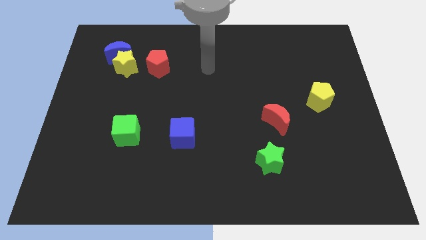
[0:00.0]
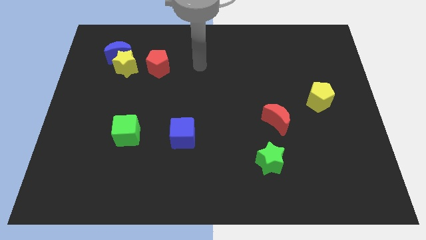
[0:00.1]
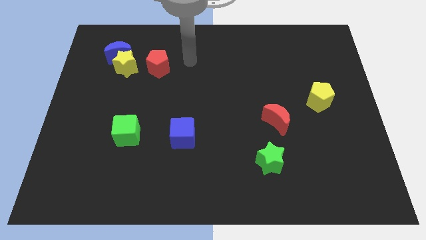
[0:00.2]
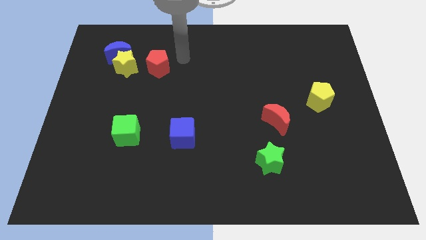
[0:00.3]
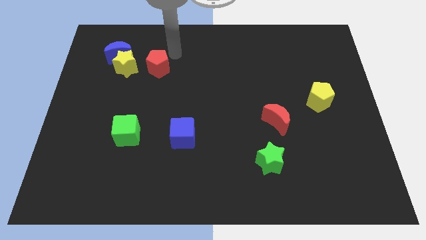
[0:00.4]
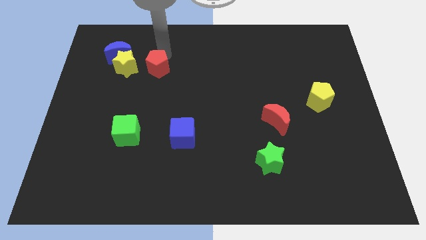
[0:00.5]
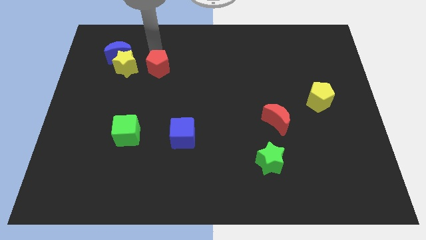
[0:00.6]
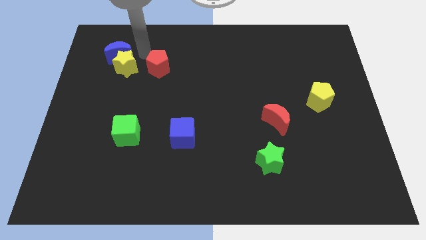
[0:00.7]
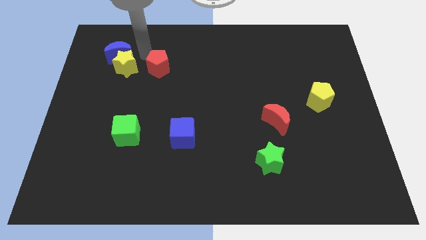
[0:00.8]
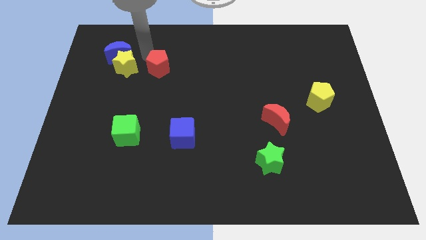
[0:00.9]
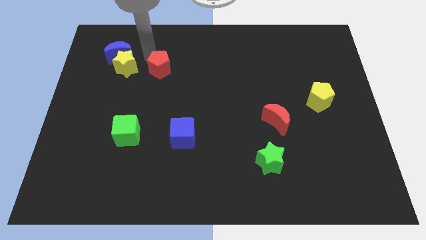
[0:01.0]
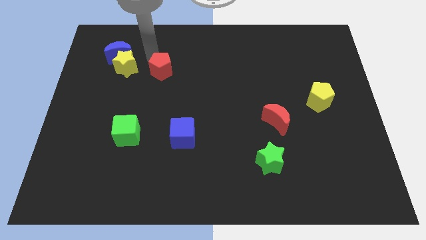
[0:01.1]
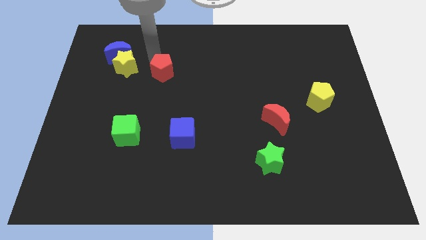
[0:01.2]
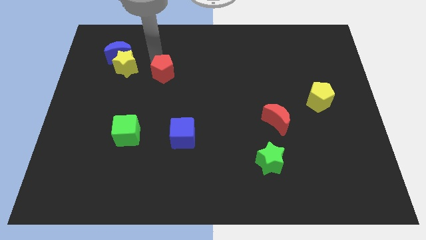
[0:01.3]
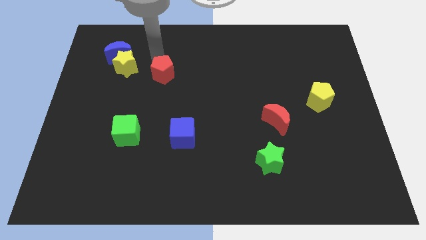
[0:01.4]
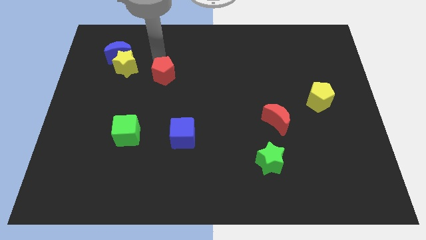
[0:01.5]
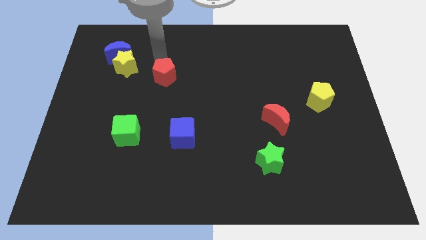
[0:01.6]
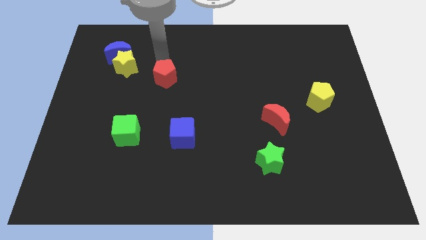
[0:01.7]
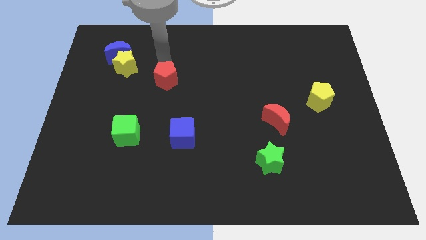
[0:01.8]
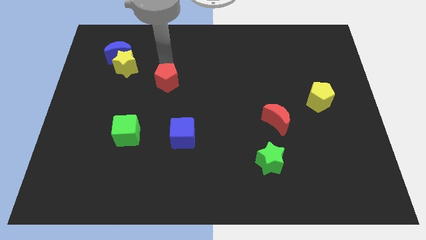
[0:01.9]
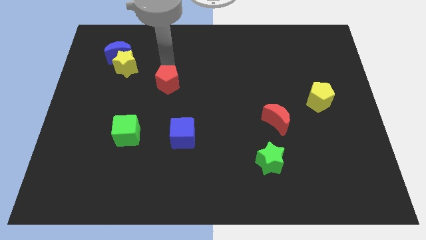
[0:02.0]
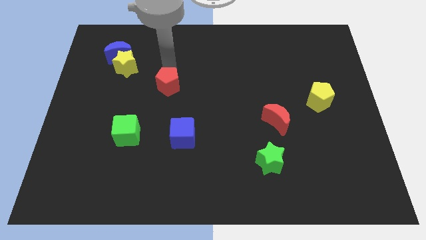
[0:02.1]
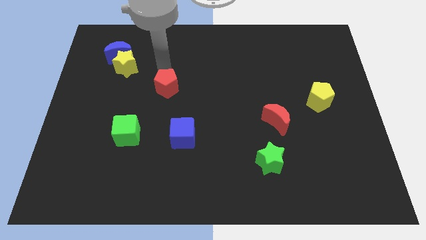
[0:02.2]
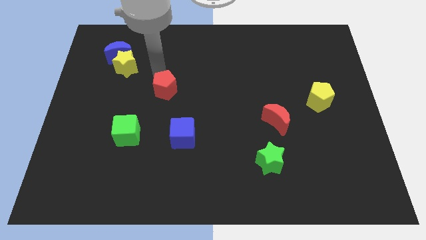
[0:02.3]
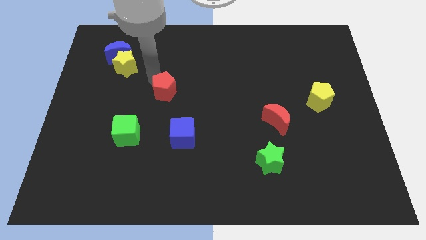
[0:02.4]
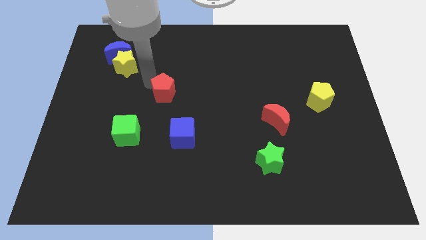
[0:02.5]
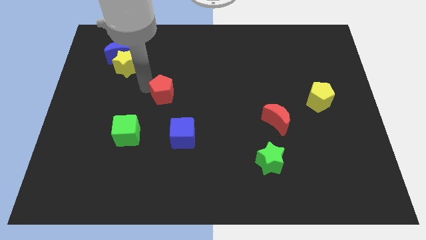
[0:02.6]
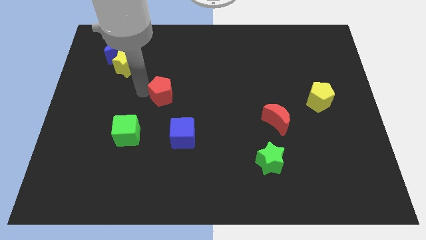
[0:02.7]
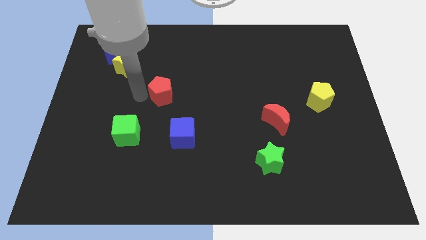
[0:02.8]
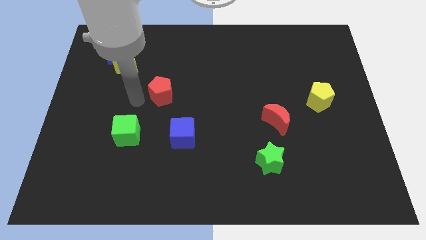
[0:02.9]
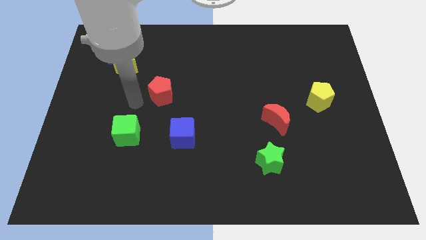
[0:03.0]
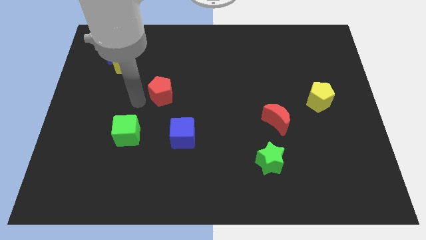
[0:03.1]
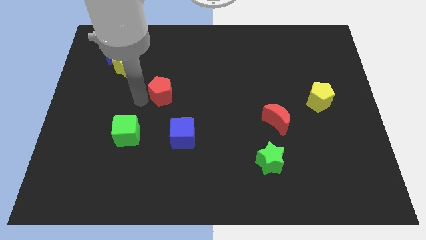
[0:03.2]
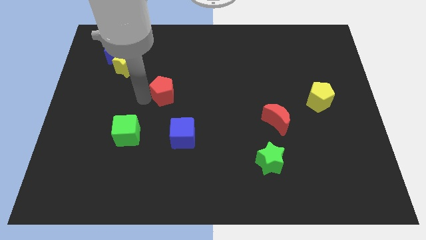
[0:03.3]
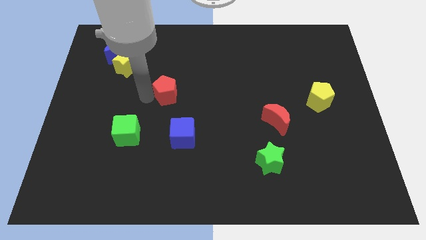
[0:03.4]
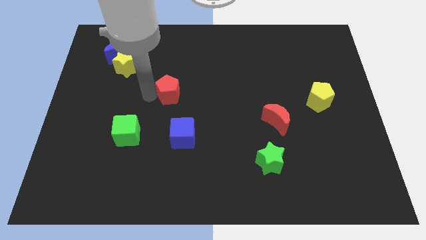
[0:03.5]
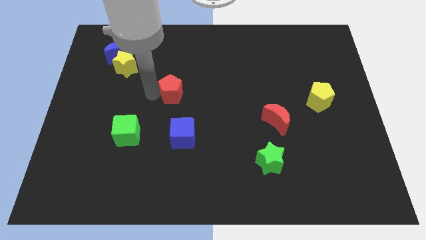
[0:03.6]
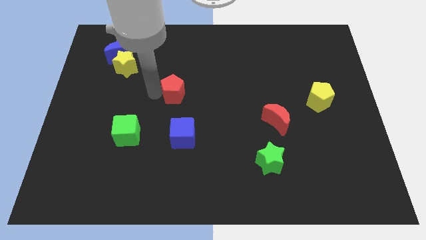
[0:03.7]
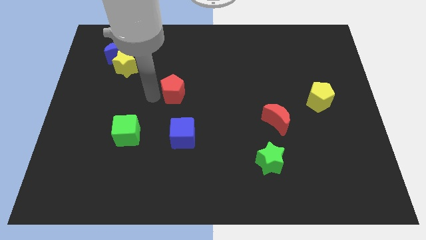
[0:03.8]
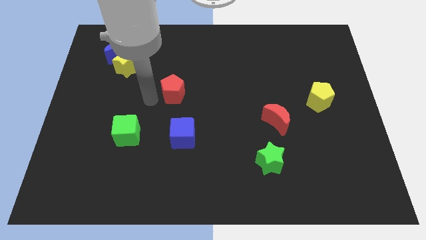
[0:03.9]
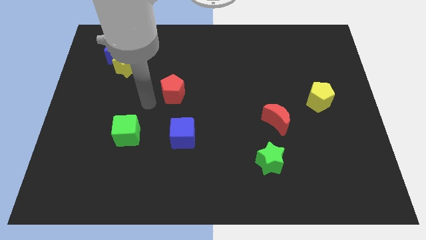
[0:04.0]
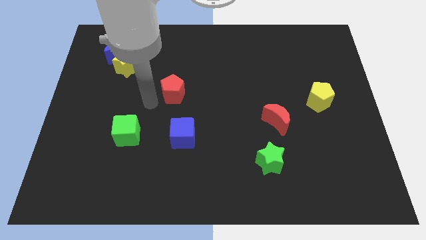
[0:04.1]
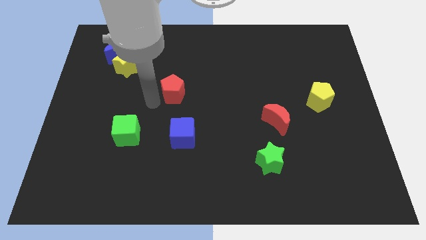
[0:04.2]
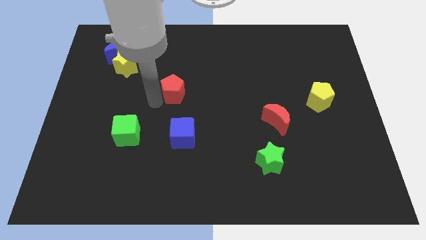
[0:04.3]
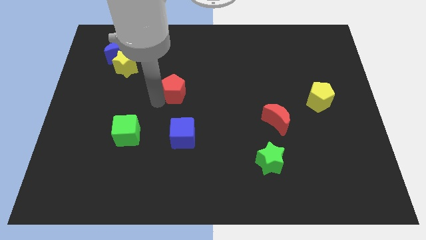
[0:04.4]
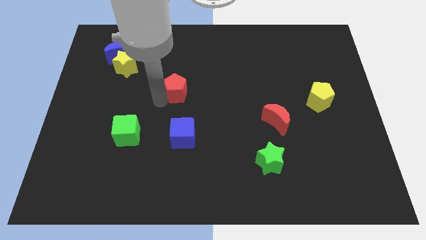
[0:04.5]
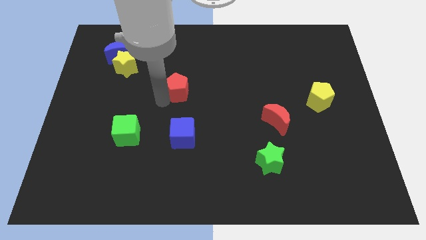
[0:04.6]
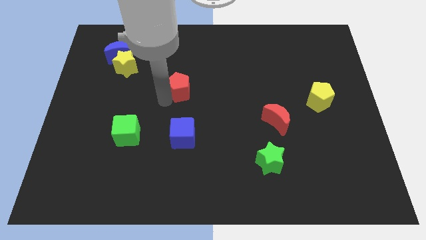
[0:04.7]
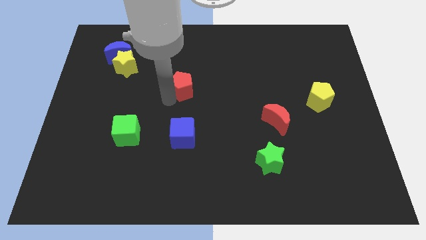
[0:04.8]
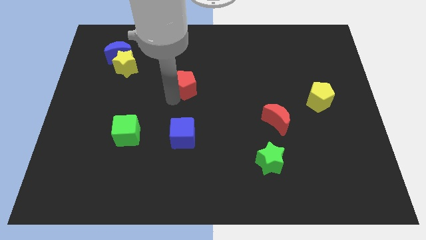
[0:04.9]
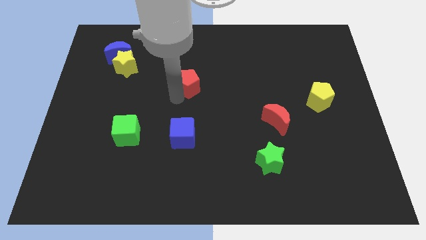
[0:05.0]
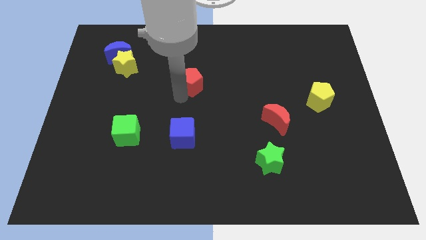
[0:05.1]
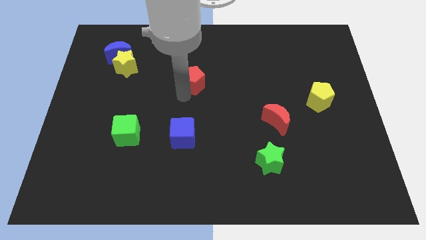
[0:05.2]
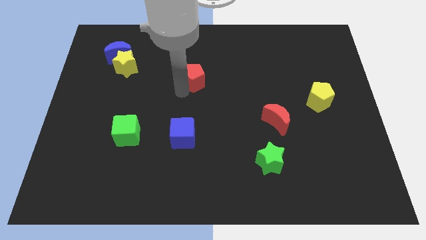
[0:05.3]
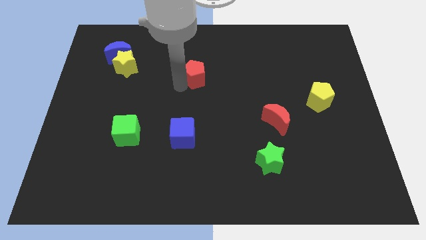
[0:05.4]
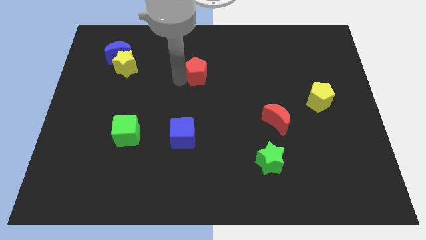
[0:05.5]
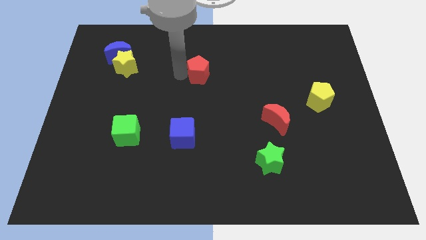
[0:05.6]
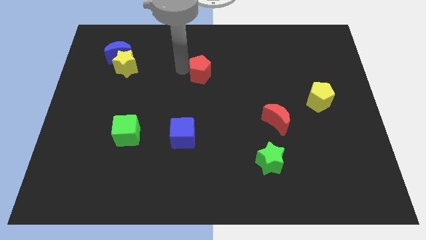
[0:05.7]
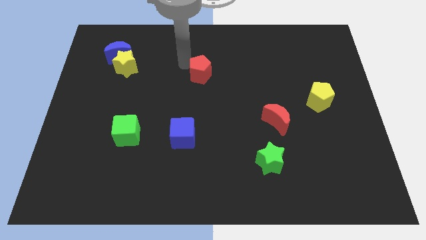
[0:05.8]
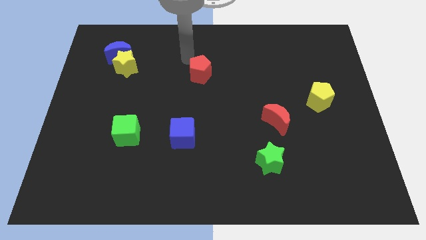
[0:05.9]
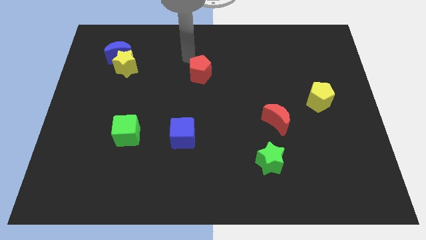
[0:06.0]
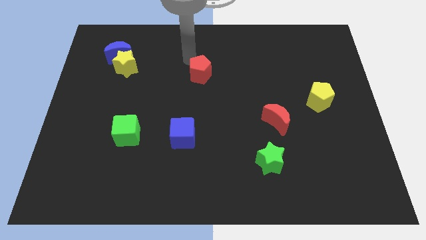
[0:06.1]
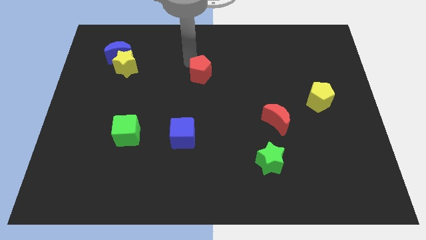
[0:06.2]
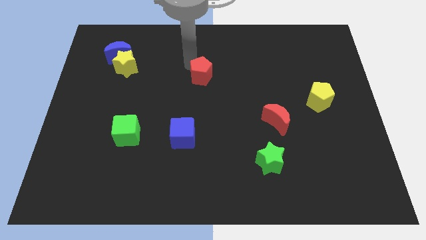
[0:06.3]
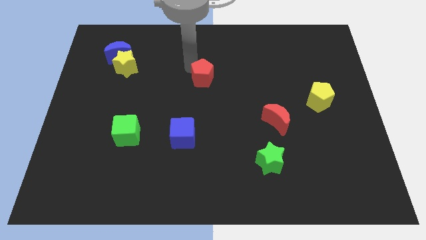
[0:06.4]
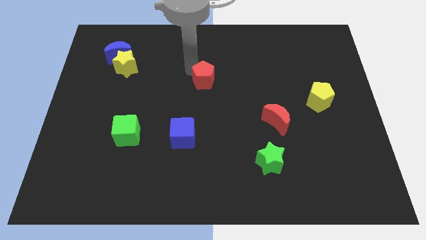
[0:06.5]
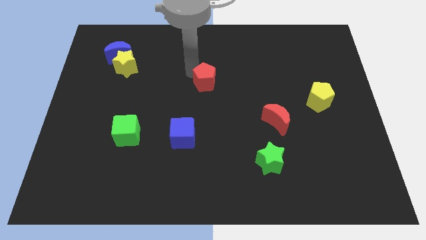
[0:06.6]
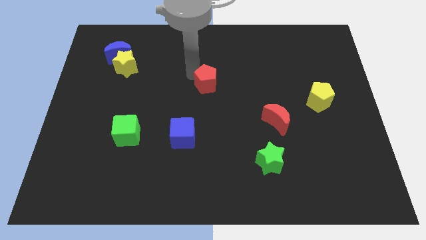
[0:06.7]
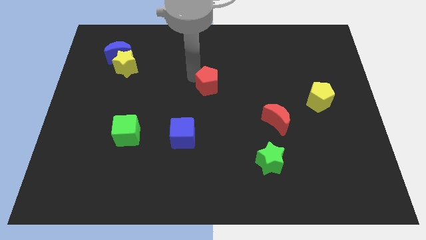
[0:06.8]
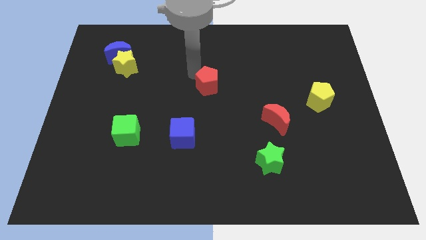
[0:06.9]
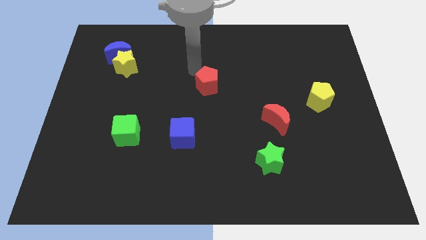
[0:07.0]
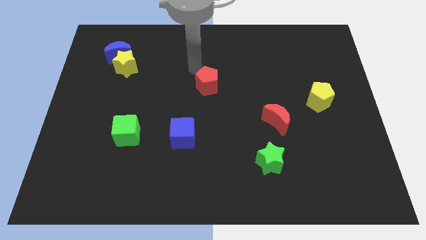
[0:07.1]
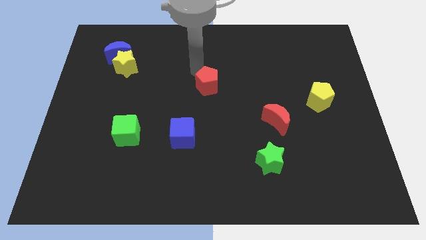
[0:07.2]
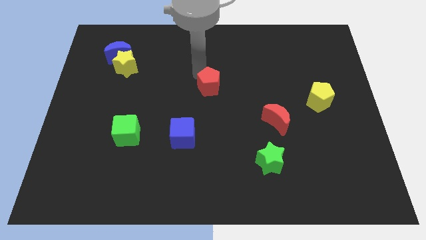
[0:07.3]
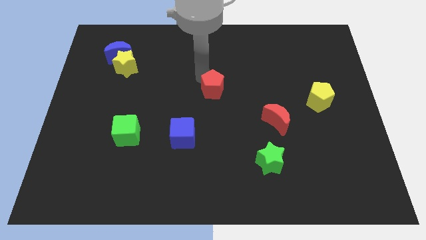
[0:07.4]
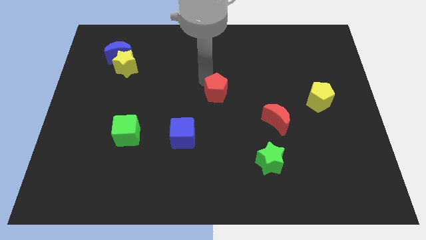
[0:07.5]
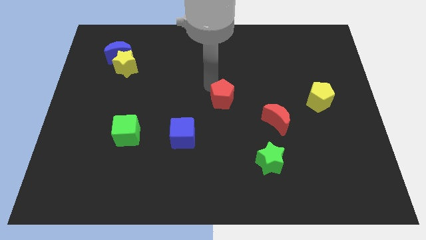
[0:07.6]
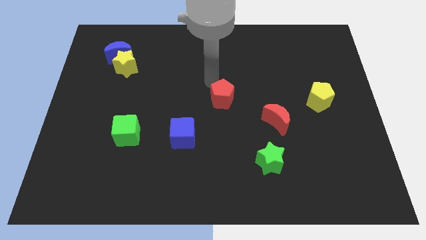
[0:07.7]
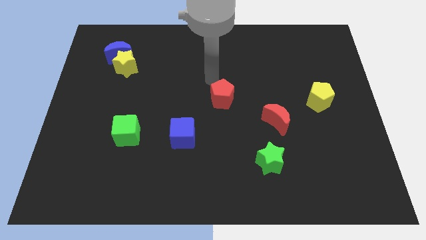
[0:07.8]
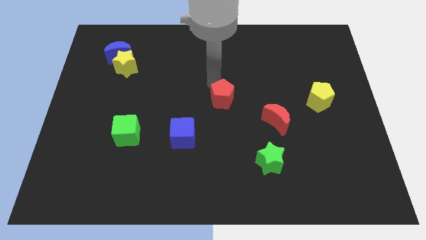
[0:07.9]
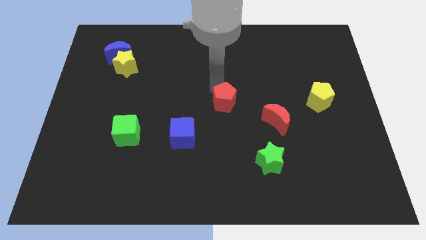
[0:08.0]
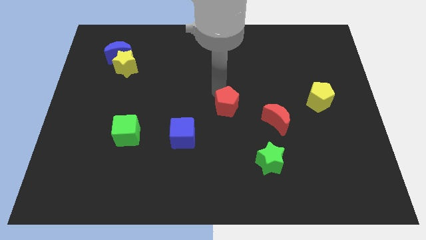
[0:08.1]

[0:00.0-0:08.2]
slide the red pentagon diagonally downwards and right
